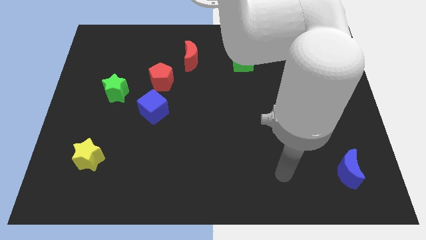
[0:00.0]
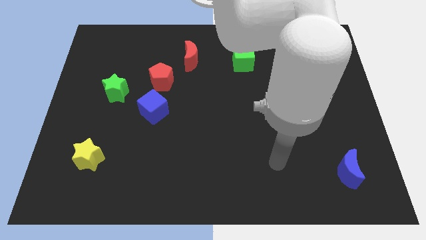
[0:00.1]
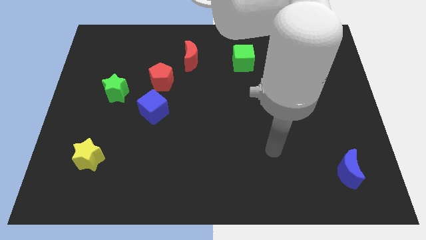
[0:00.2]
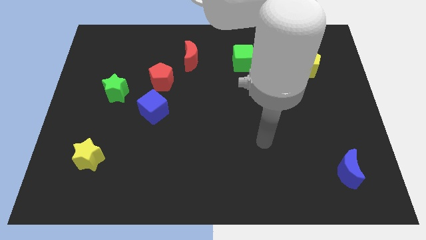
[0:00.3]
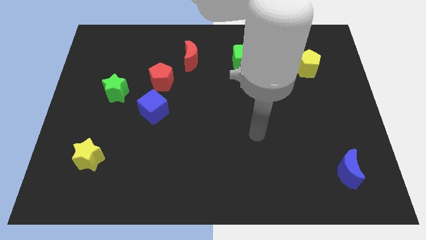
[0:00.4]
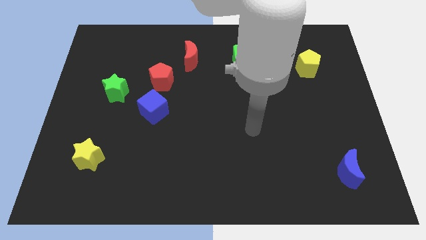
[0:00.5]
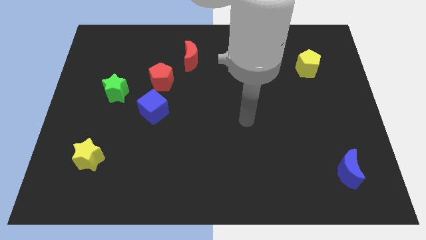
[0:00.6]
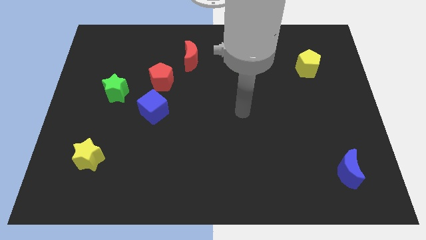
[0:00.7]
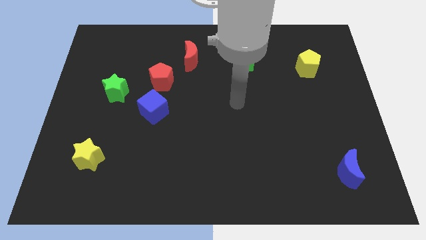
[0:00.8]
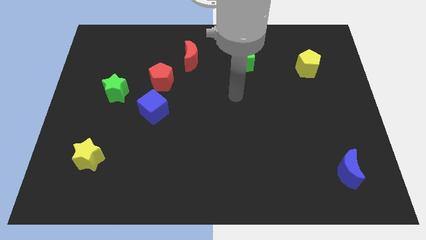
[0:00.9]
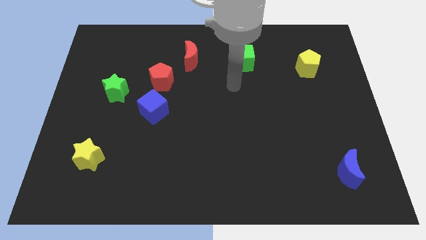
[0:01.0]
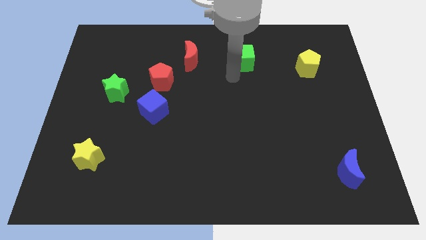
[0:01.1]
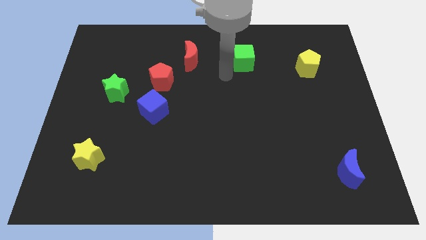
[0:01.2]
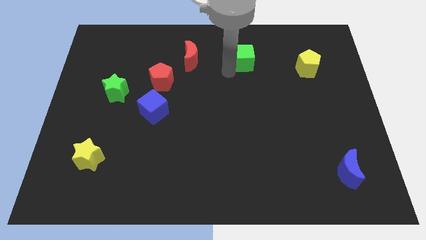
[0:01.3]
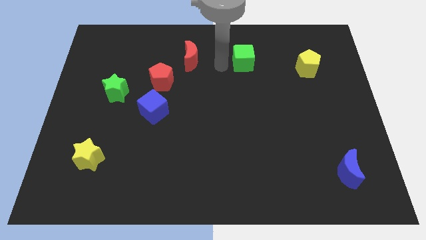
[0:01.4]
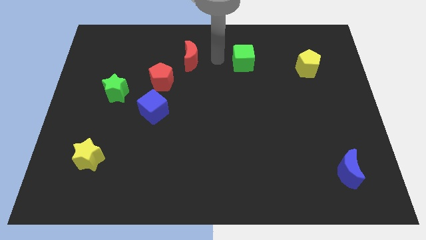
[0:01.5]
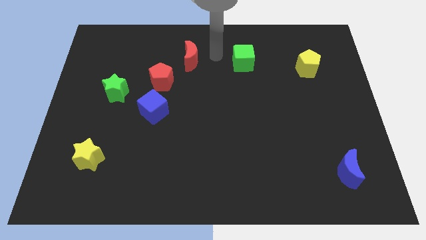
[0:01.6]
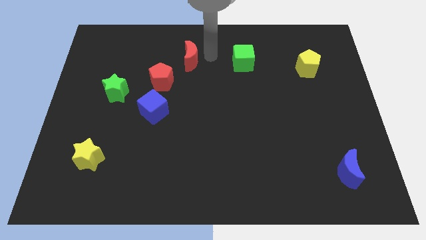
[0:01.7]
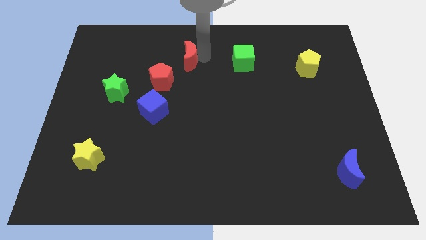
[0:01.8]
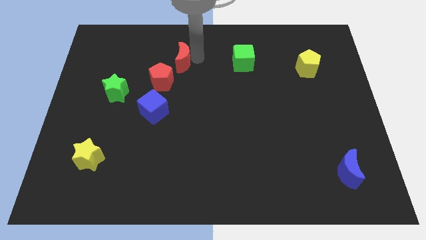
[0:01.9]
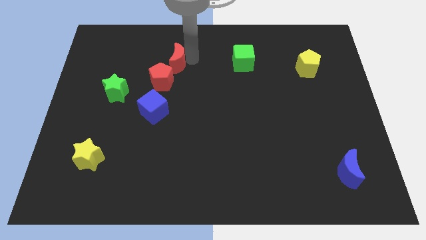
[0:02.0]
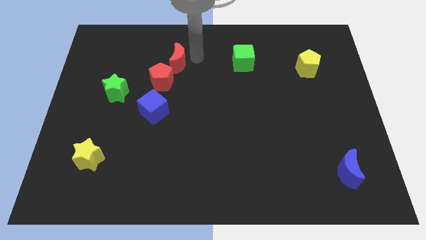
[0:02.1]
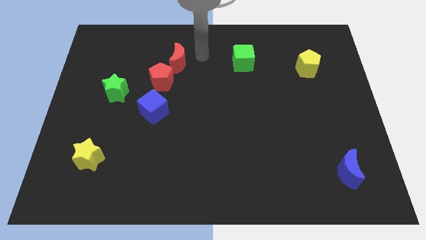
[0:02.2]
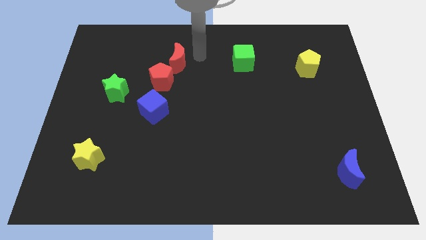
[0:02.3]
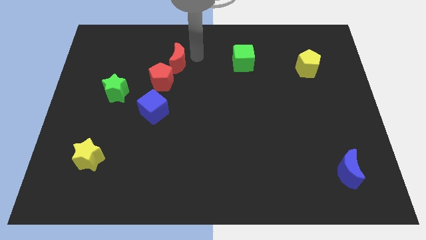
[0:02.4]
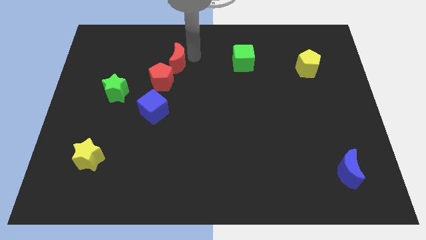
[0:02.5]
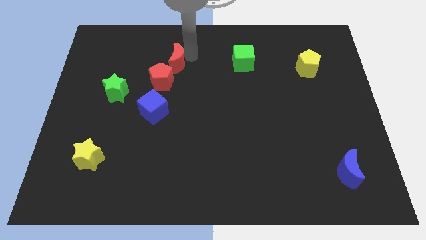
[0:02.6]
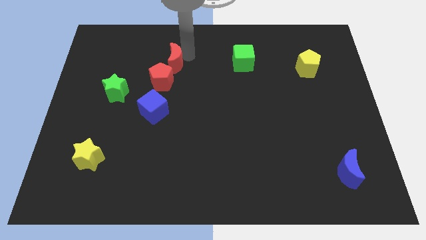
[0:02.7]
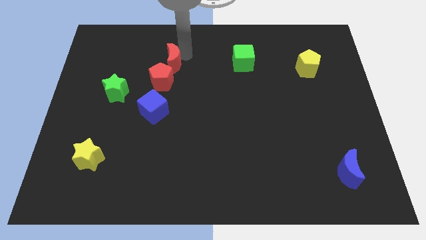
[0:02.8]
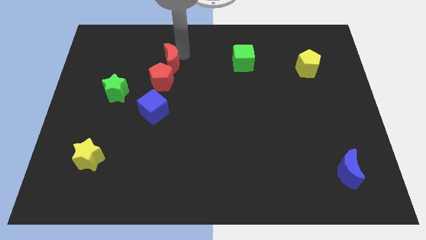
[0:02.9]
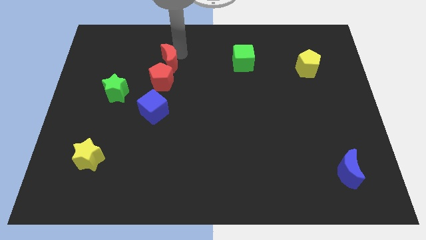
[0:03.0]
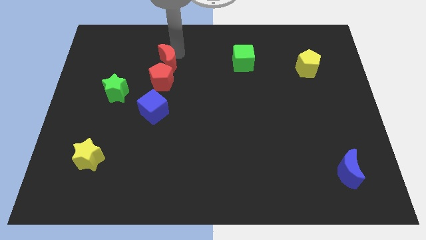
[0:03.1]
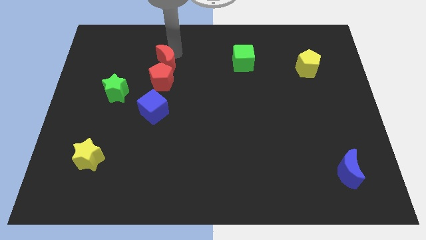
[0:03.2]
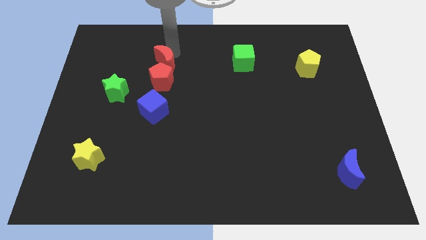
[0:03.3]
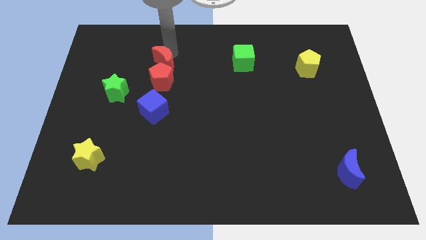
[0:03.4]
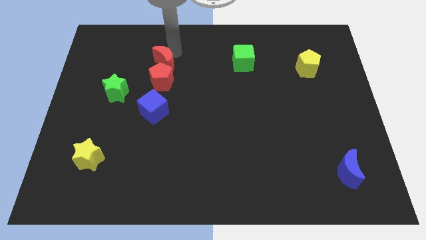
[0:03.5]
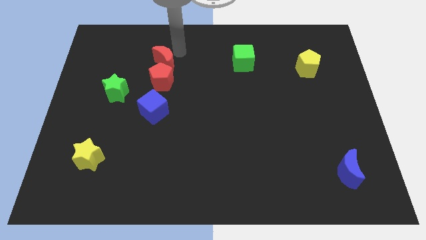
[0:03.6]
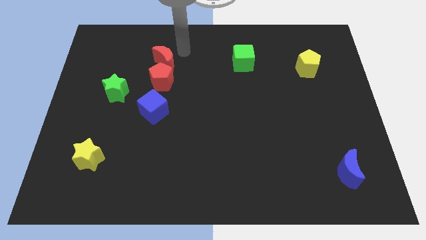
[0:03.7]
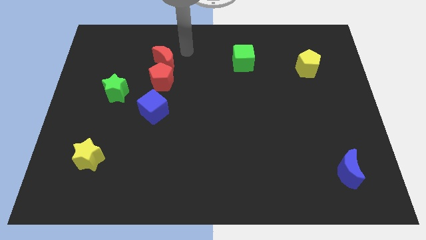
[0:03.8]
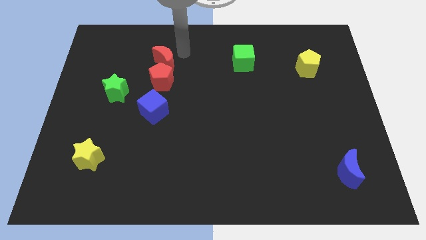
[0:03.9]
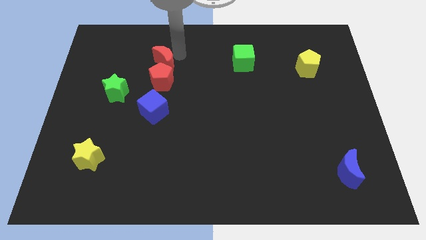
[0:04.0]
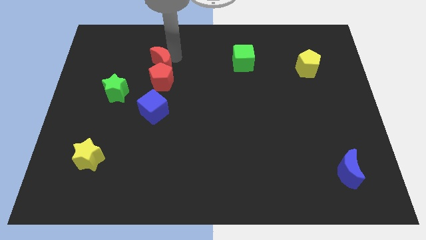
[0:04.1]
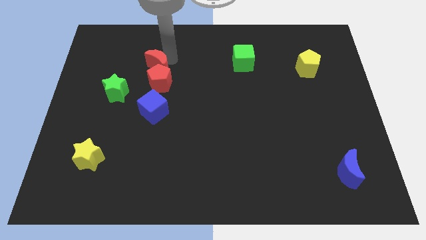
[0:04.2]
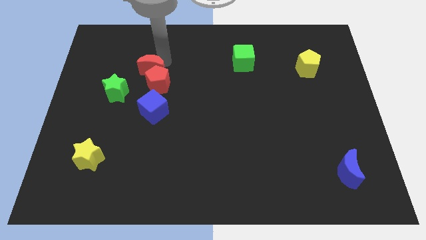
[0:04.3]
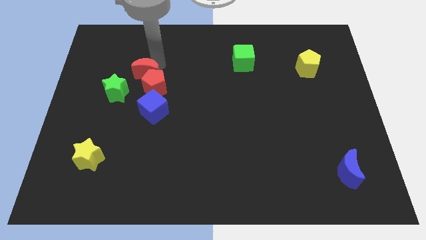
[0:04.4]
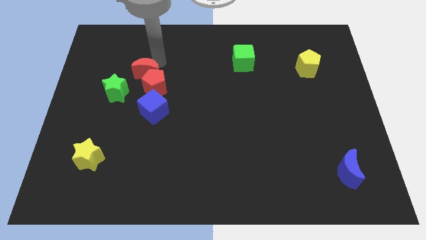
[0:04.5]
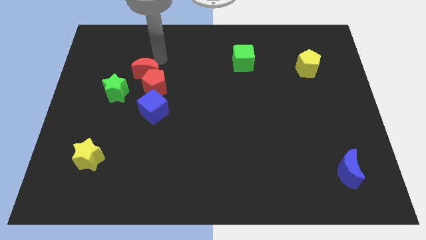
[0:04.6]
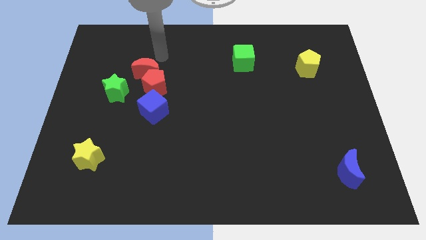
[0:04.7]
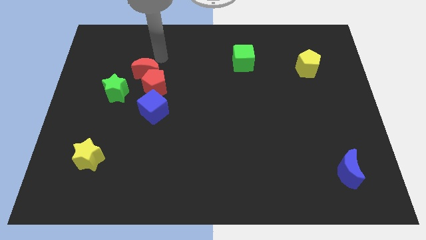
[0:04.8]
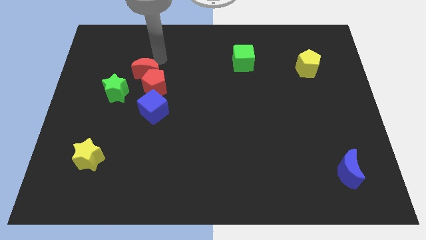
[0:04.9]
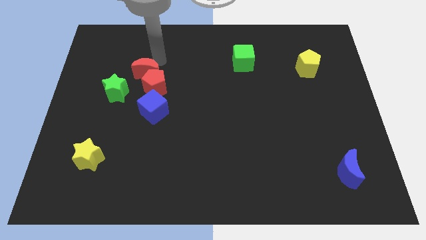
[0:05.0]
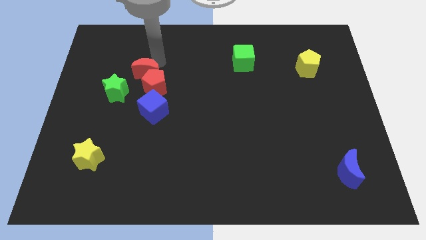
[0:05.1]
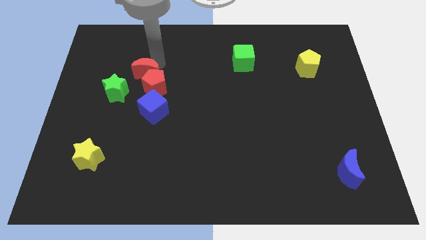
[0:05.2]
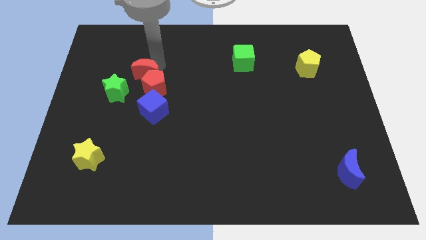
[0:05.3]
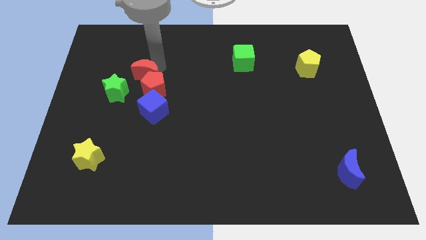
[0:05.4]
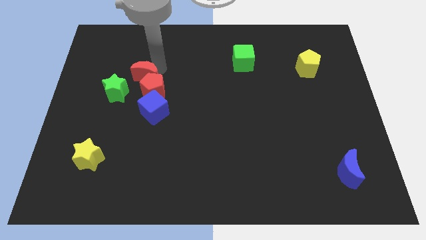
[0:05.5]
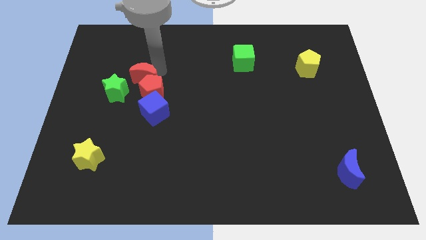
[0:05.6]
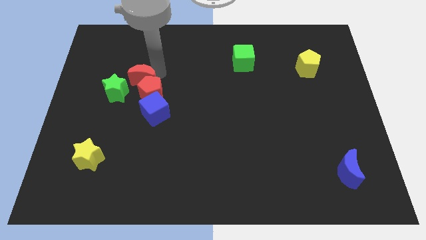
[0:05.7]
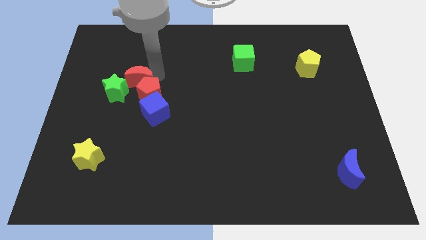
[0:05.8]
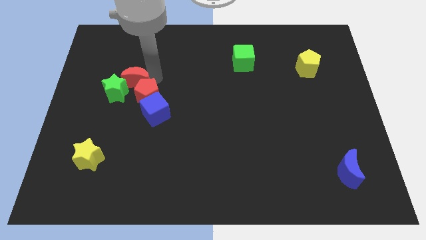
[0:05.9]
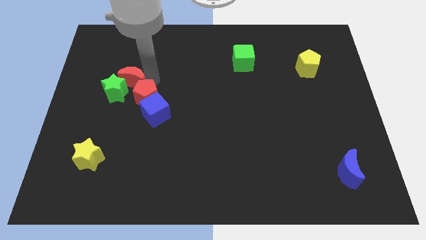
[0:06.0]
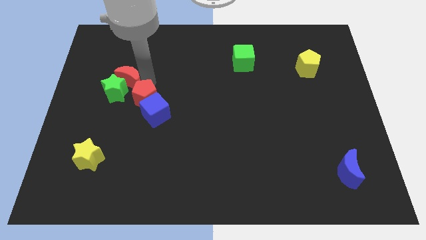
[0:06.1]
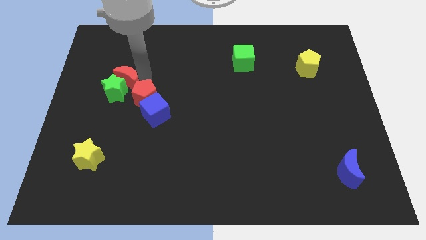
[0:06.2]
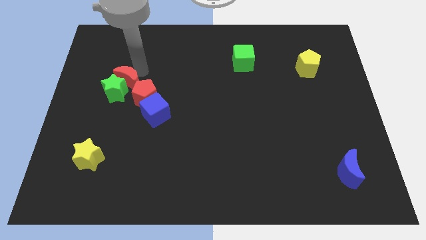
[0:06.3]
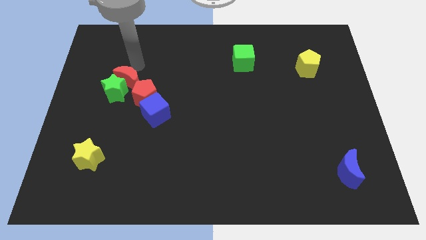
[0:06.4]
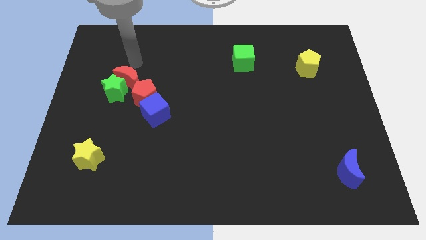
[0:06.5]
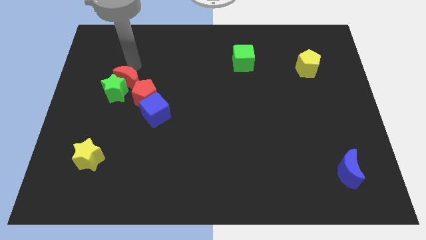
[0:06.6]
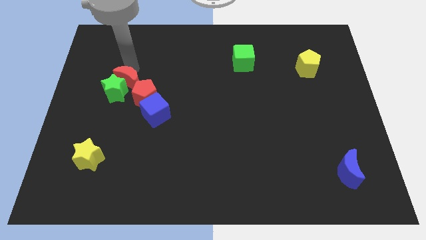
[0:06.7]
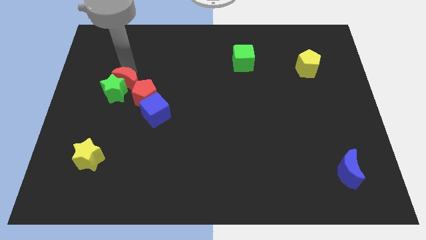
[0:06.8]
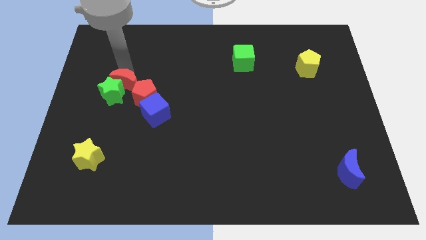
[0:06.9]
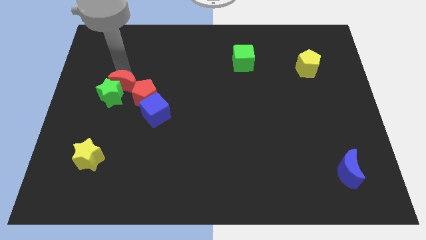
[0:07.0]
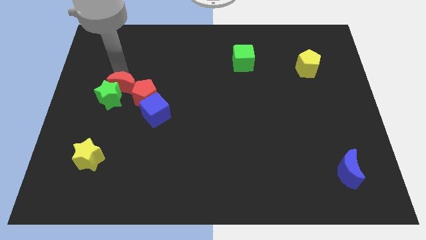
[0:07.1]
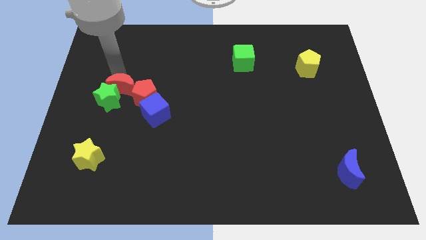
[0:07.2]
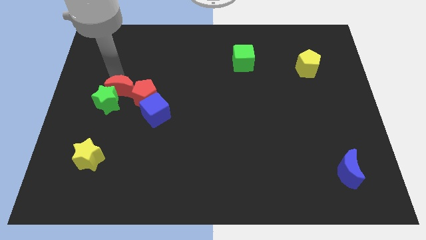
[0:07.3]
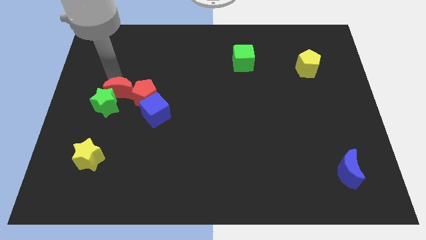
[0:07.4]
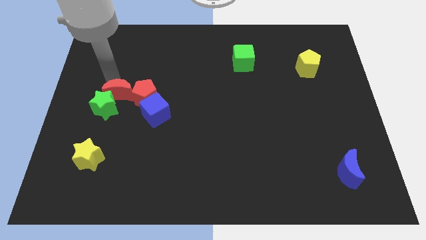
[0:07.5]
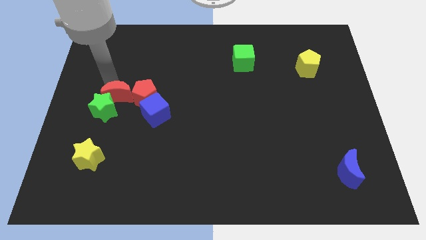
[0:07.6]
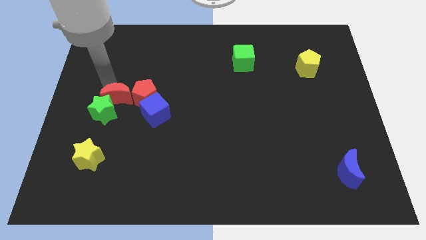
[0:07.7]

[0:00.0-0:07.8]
push the red moon diagonally down and to the left of the red pentagon
